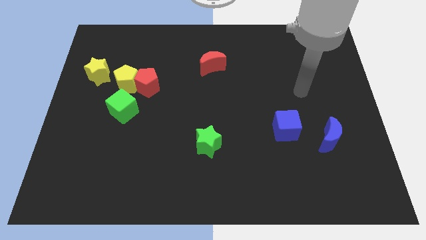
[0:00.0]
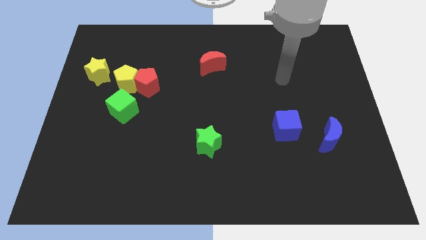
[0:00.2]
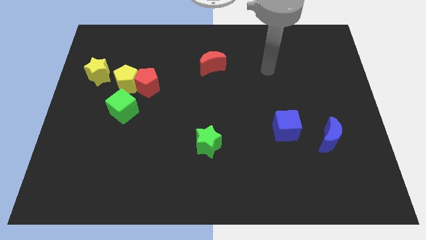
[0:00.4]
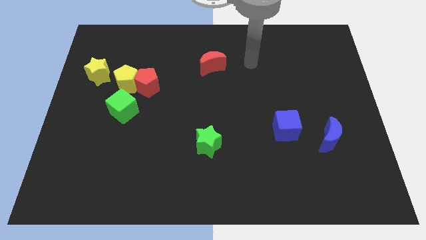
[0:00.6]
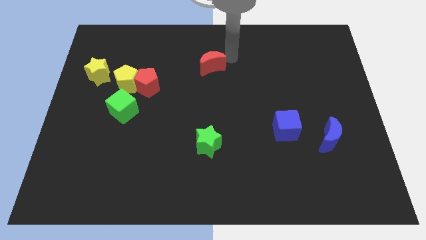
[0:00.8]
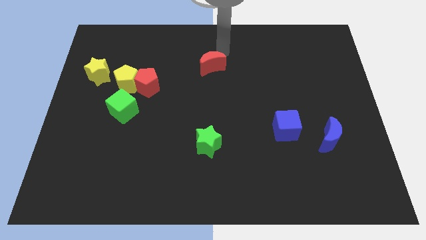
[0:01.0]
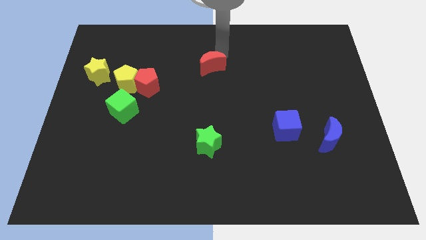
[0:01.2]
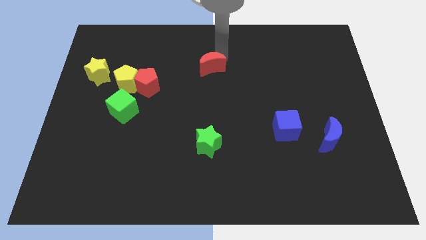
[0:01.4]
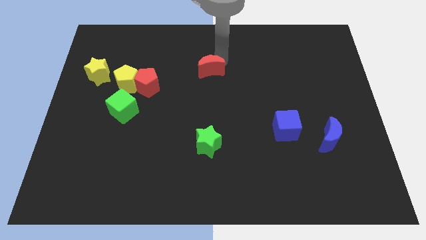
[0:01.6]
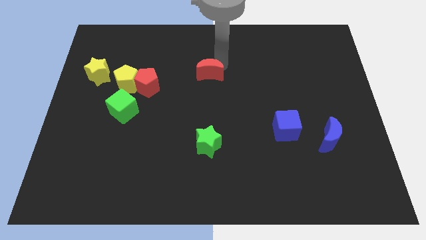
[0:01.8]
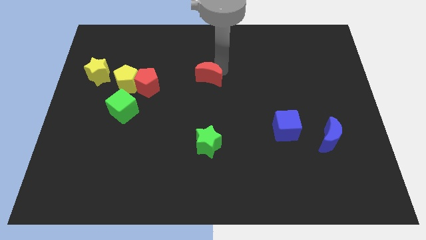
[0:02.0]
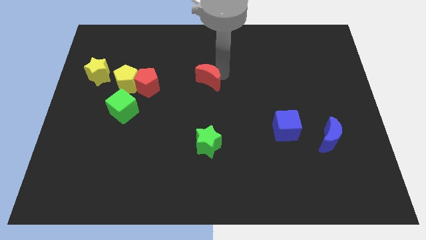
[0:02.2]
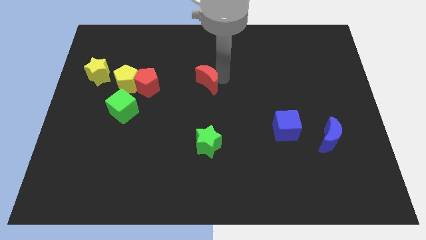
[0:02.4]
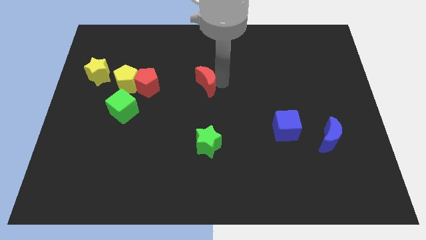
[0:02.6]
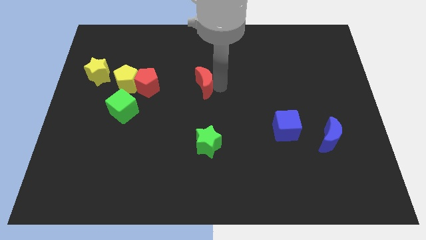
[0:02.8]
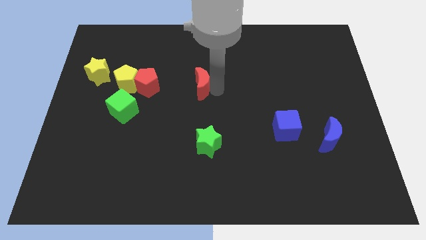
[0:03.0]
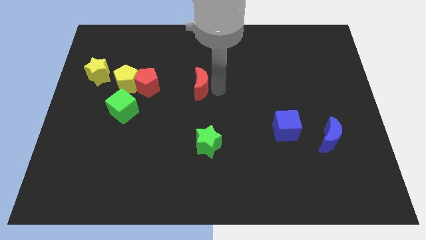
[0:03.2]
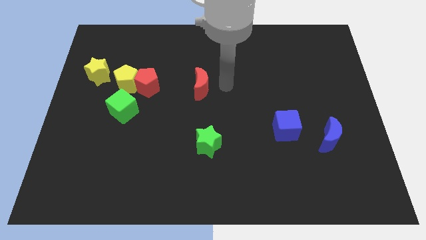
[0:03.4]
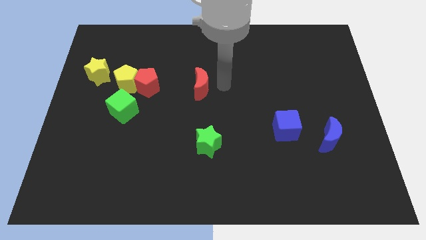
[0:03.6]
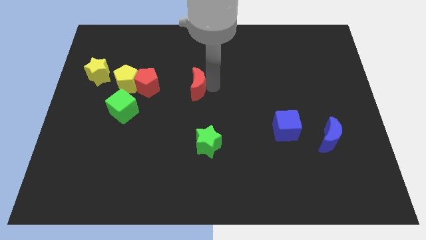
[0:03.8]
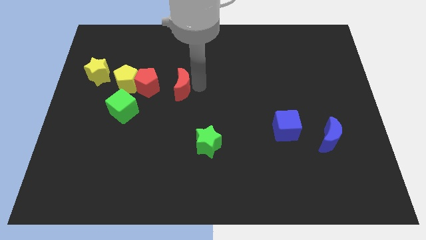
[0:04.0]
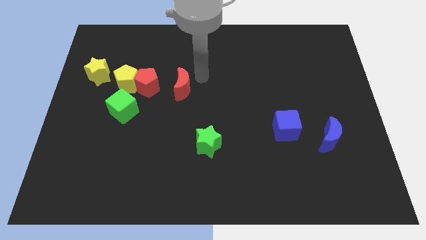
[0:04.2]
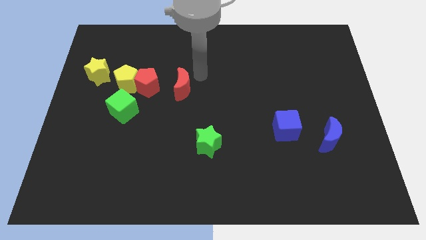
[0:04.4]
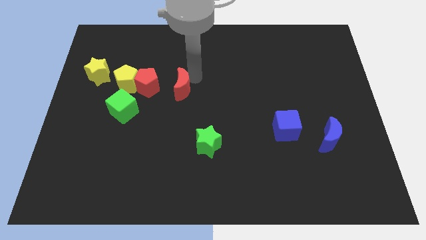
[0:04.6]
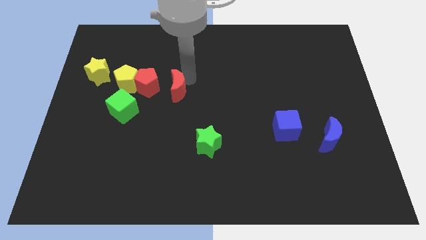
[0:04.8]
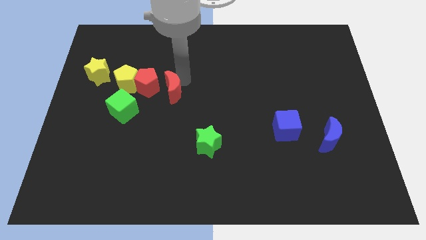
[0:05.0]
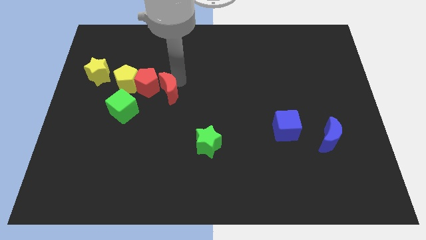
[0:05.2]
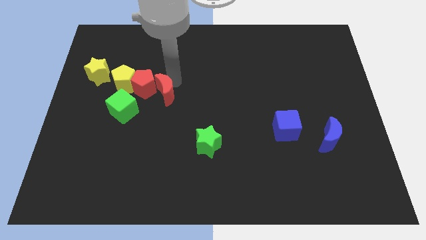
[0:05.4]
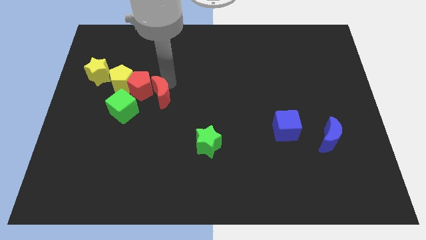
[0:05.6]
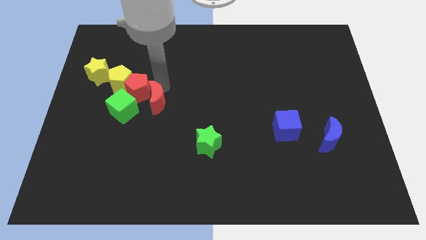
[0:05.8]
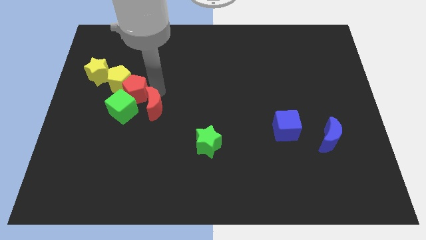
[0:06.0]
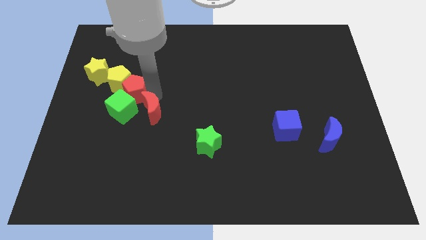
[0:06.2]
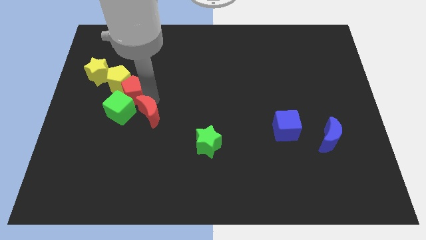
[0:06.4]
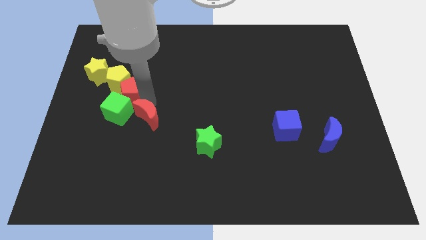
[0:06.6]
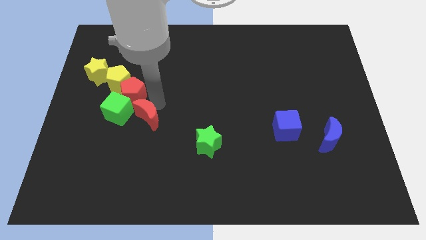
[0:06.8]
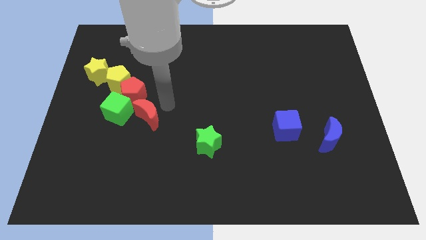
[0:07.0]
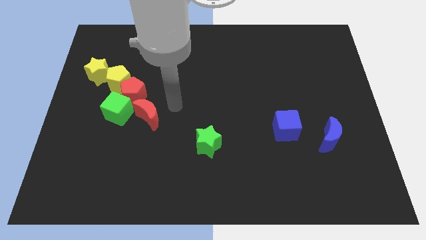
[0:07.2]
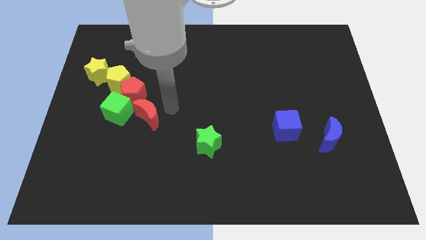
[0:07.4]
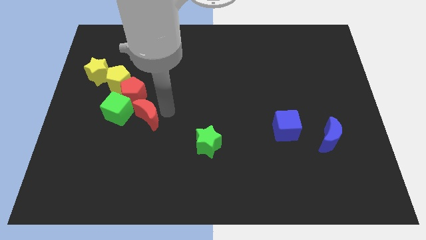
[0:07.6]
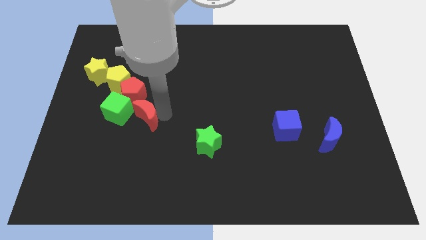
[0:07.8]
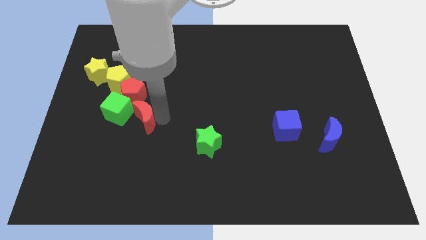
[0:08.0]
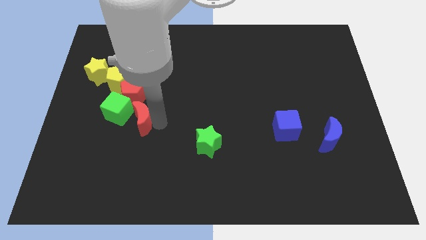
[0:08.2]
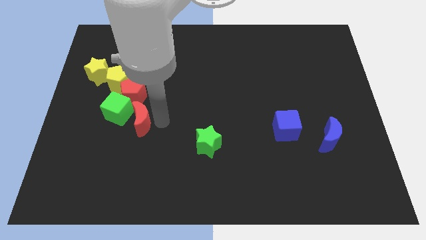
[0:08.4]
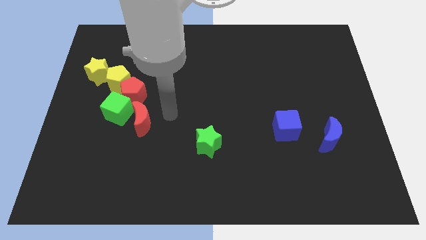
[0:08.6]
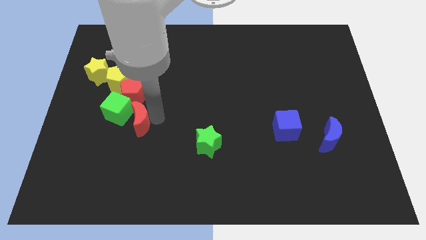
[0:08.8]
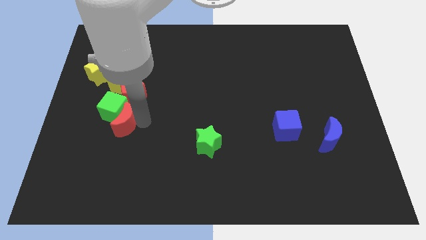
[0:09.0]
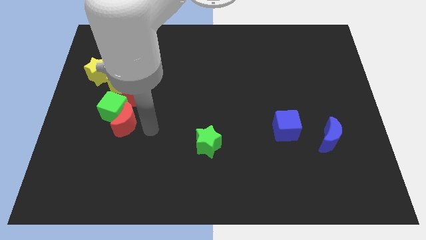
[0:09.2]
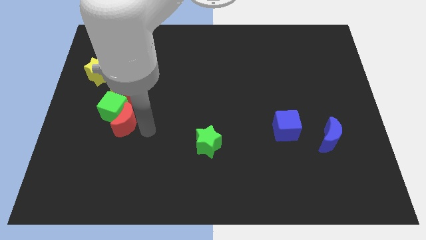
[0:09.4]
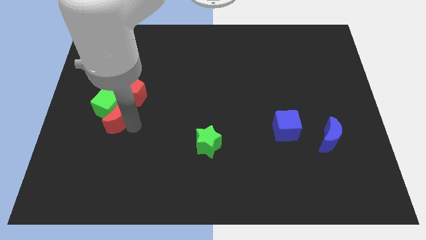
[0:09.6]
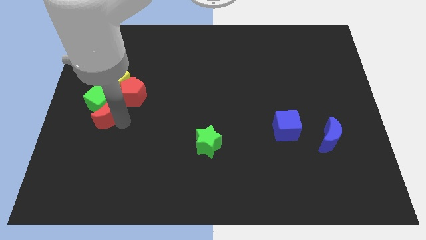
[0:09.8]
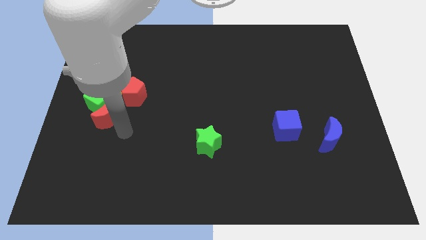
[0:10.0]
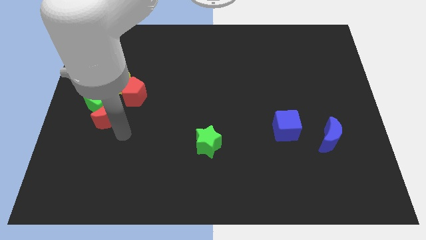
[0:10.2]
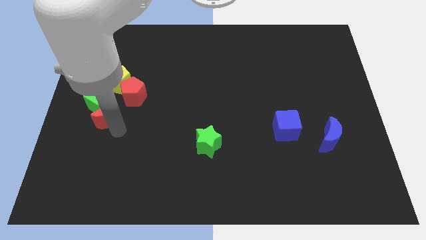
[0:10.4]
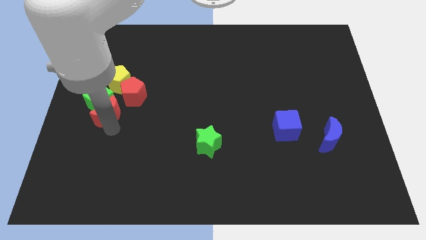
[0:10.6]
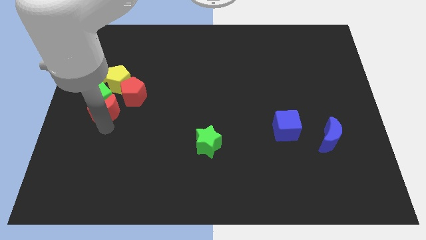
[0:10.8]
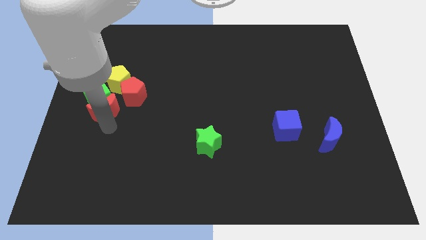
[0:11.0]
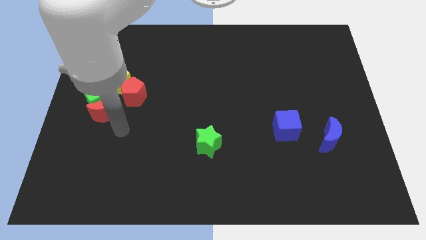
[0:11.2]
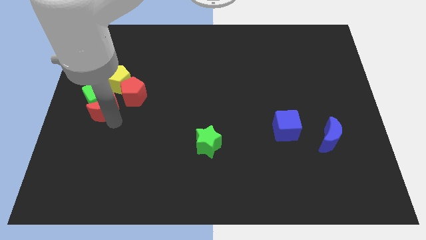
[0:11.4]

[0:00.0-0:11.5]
move the red moon diagonally down and to the left of the yellow pentagon
